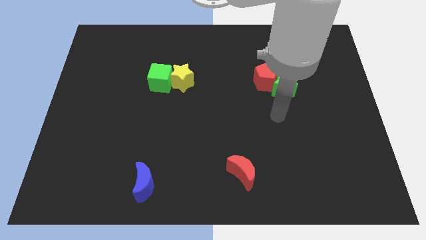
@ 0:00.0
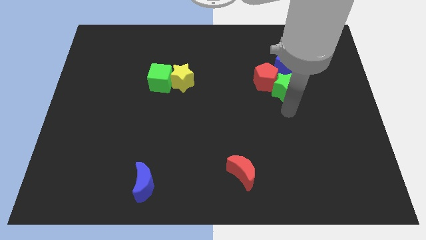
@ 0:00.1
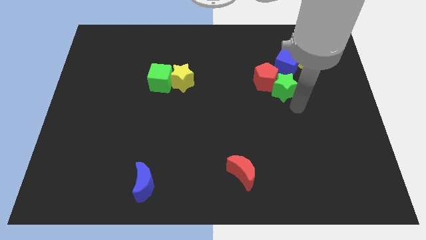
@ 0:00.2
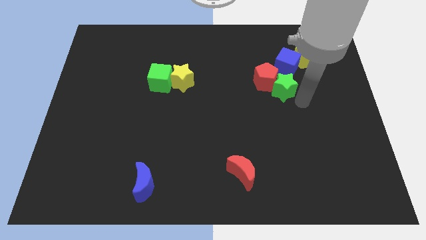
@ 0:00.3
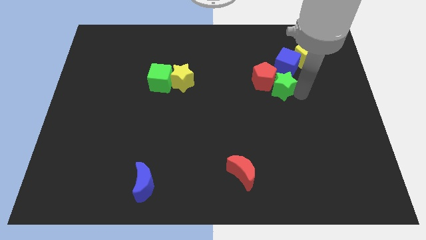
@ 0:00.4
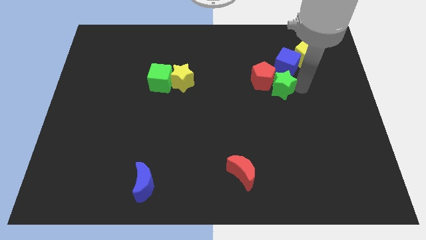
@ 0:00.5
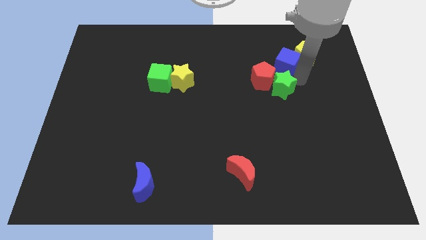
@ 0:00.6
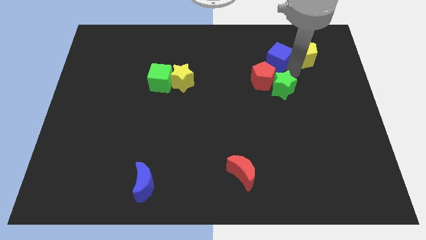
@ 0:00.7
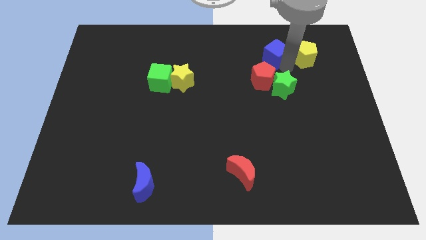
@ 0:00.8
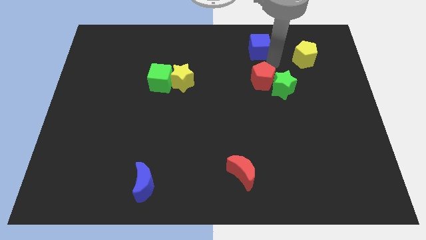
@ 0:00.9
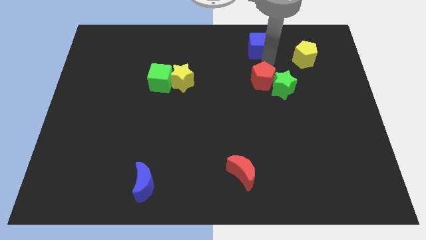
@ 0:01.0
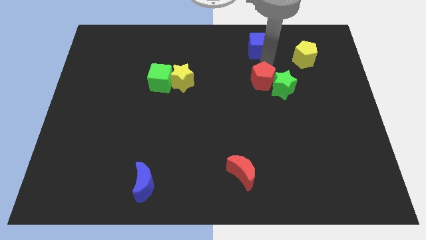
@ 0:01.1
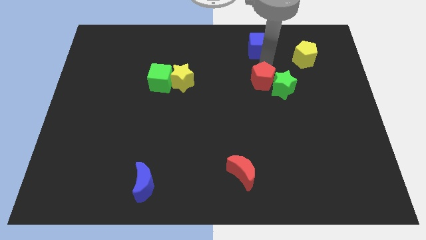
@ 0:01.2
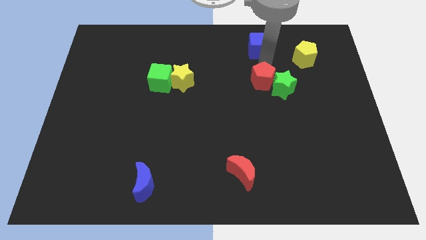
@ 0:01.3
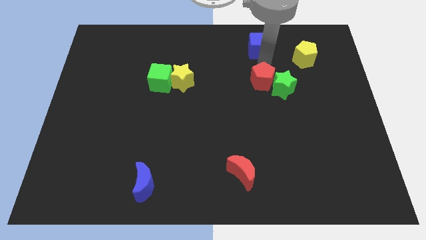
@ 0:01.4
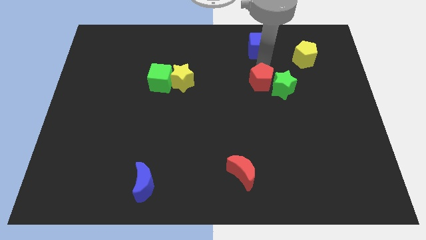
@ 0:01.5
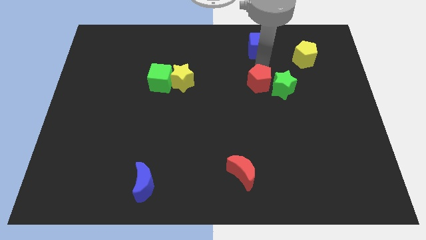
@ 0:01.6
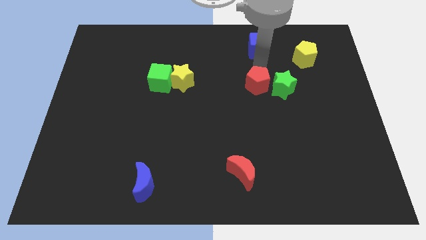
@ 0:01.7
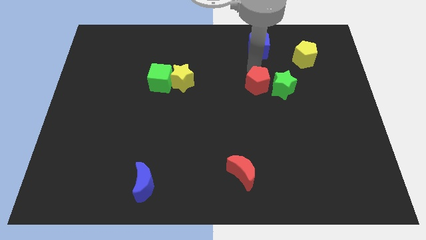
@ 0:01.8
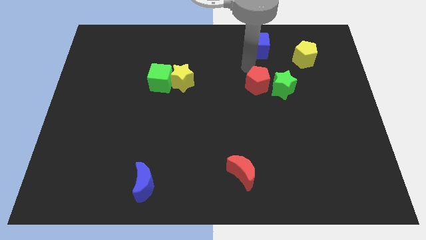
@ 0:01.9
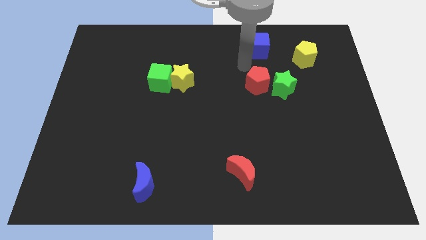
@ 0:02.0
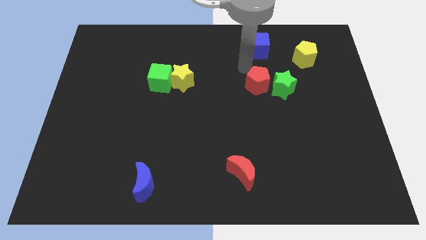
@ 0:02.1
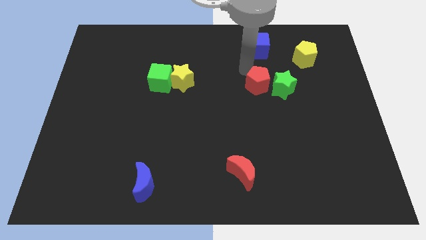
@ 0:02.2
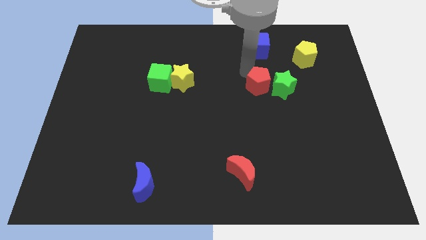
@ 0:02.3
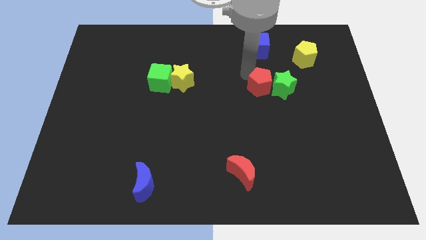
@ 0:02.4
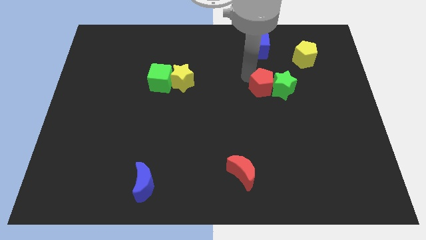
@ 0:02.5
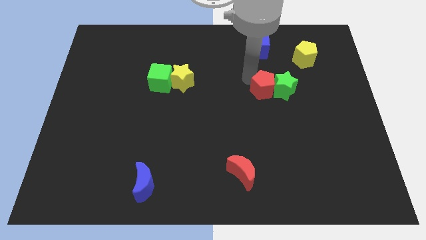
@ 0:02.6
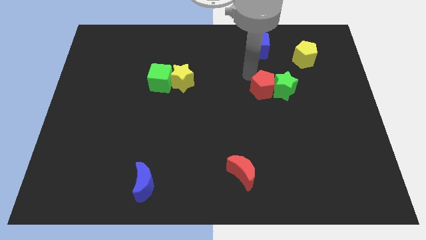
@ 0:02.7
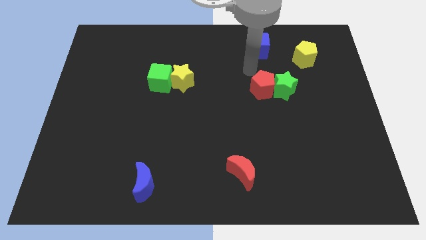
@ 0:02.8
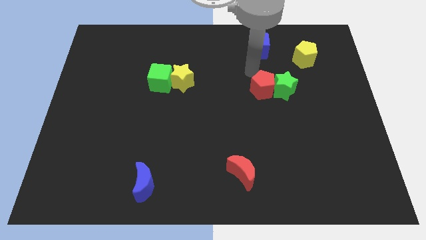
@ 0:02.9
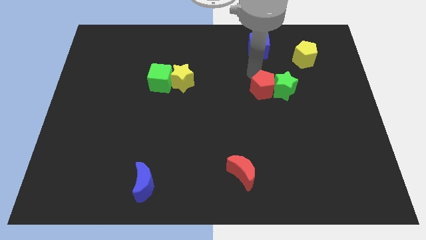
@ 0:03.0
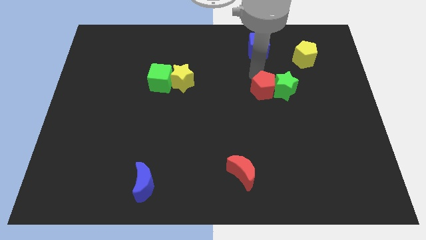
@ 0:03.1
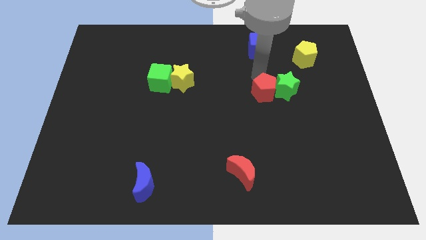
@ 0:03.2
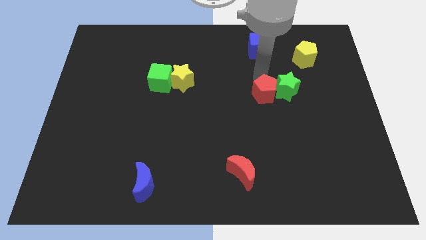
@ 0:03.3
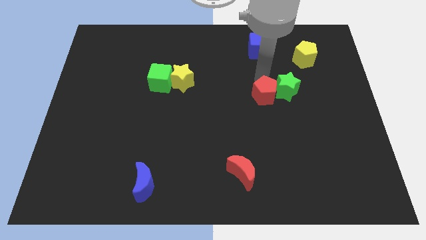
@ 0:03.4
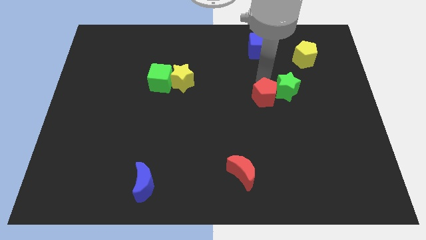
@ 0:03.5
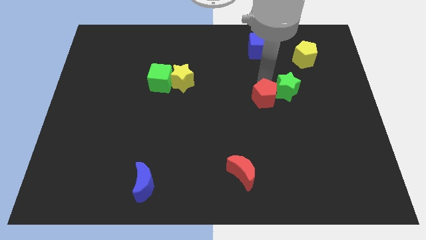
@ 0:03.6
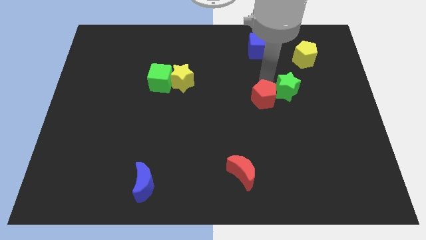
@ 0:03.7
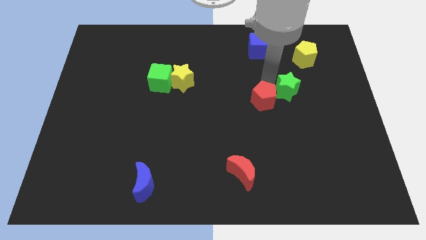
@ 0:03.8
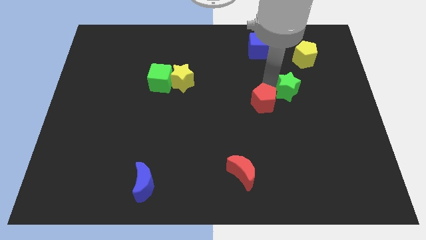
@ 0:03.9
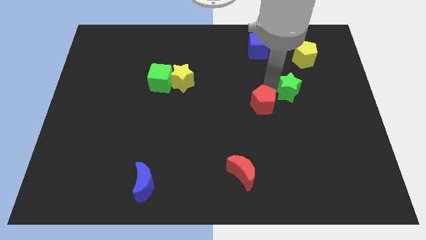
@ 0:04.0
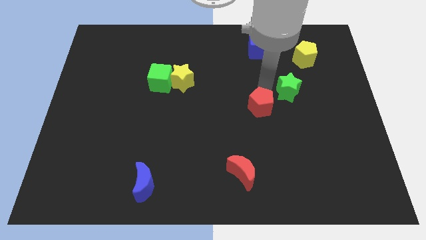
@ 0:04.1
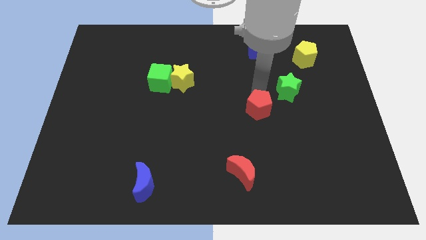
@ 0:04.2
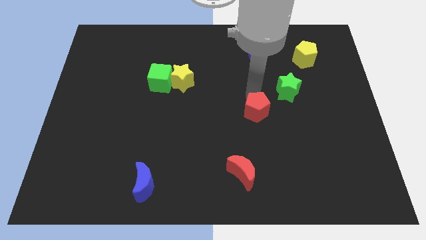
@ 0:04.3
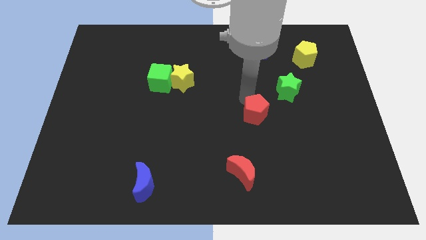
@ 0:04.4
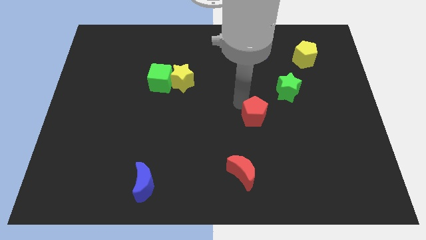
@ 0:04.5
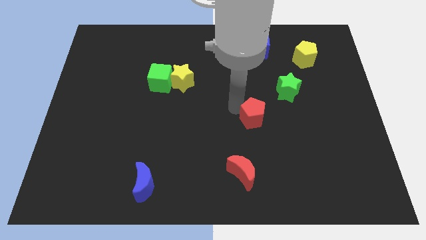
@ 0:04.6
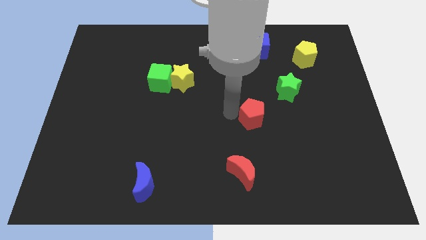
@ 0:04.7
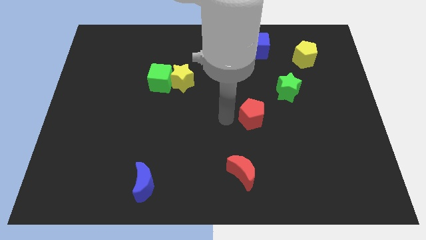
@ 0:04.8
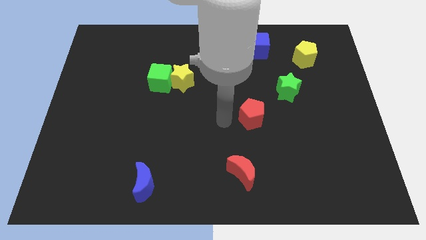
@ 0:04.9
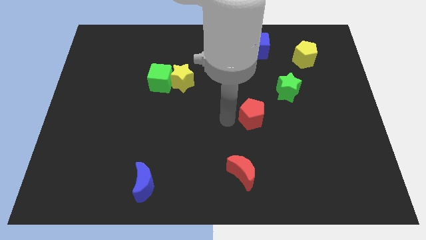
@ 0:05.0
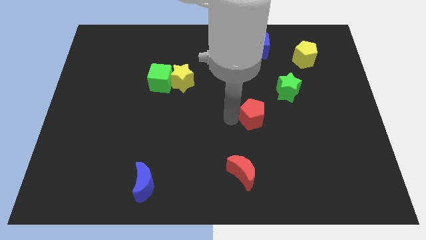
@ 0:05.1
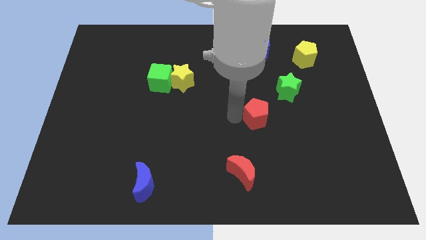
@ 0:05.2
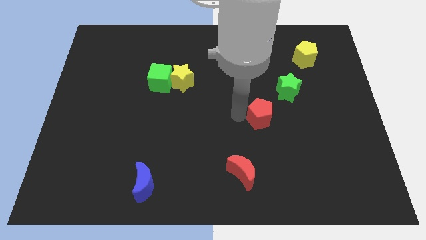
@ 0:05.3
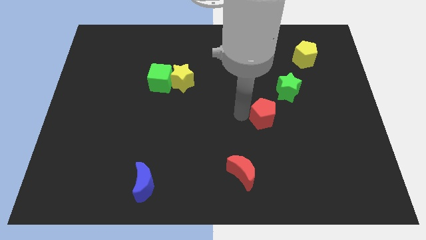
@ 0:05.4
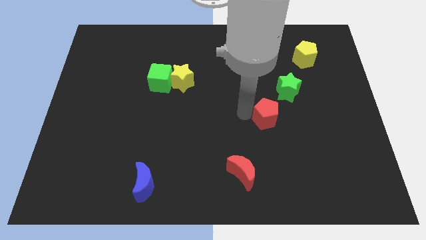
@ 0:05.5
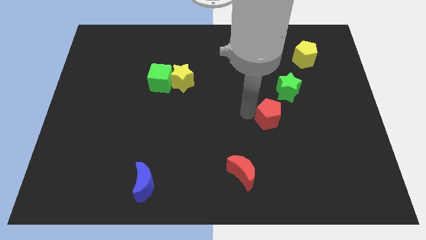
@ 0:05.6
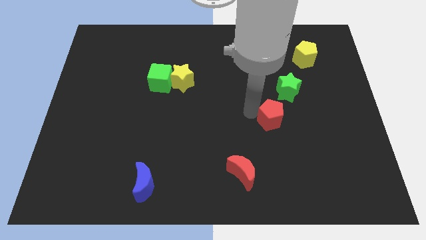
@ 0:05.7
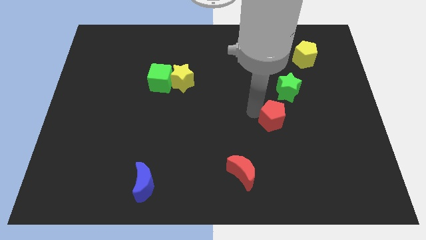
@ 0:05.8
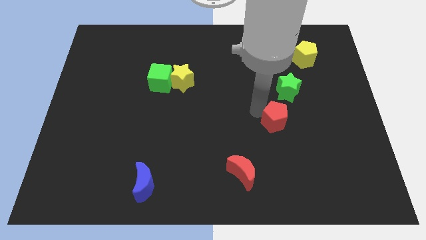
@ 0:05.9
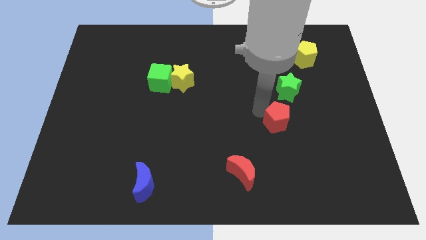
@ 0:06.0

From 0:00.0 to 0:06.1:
push the red pentagon downwards and to the right diagonally a bit

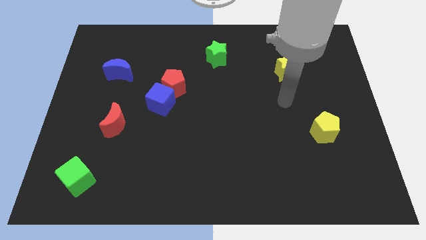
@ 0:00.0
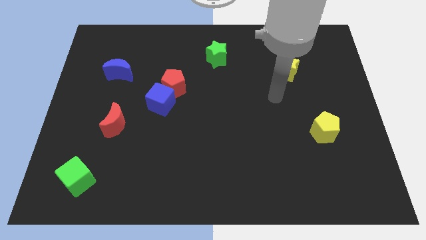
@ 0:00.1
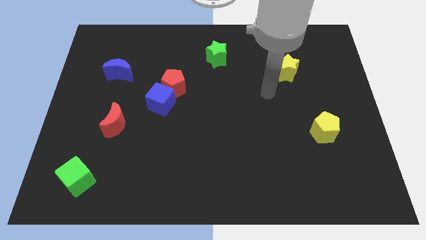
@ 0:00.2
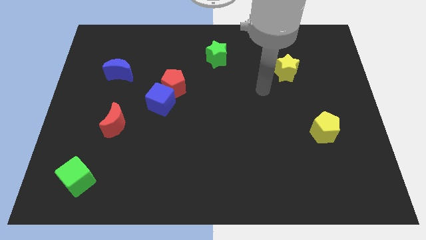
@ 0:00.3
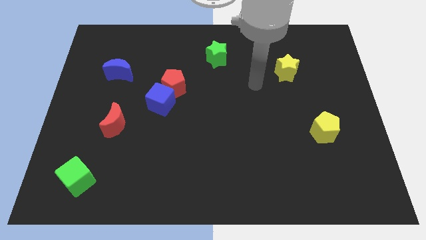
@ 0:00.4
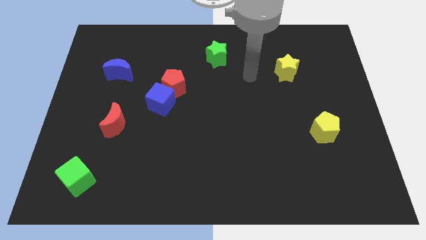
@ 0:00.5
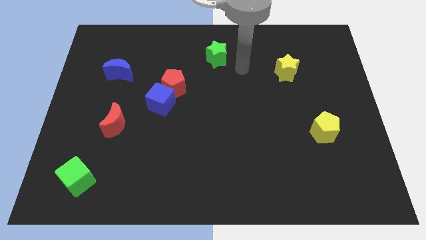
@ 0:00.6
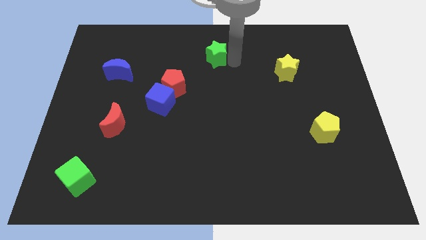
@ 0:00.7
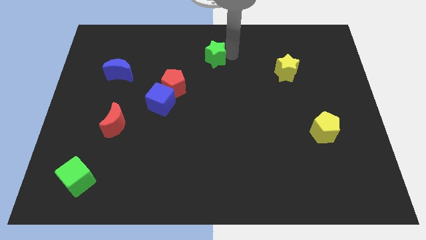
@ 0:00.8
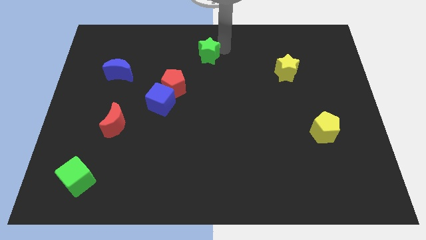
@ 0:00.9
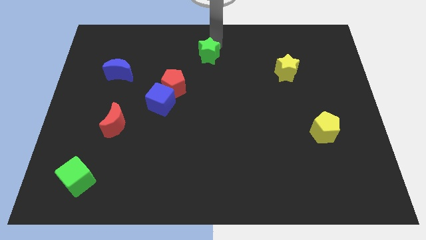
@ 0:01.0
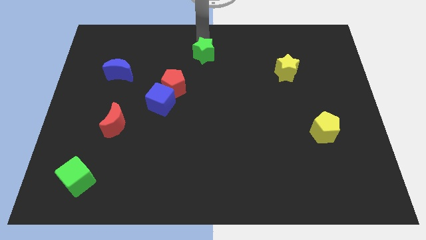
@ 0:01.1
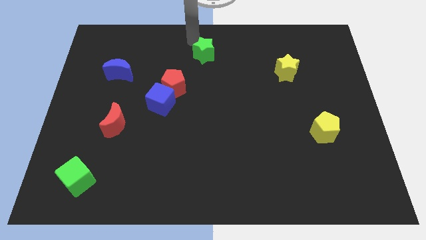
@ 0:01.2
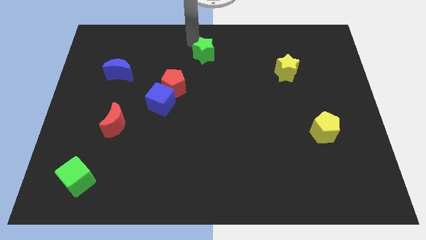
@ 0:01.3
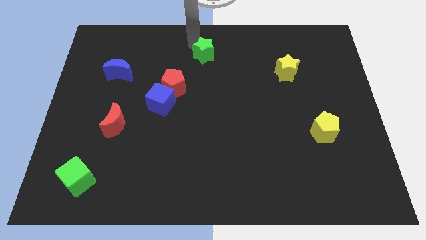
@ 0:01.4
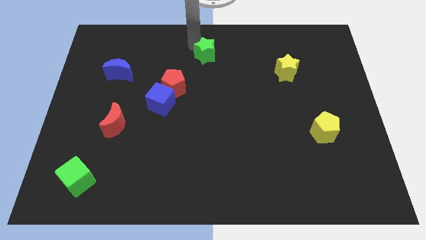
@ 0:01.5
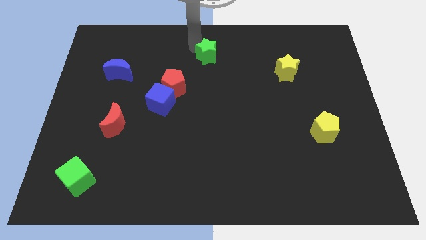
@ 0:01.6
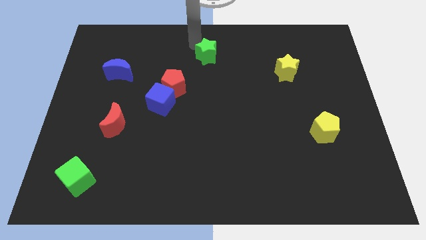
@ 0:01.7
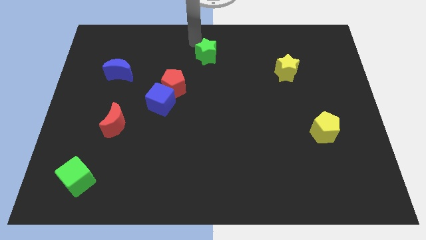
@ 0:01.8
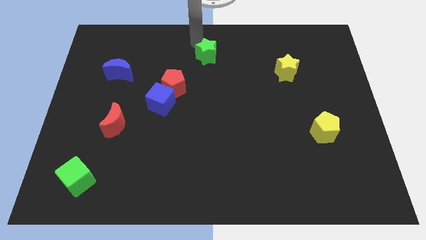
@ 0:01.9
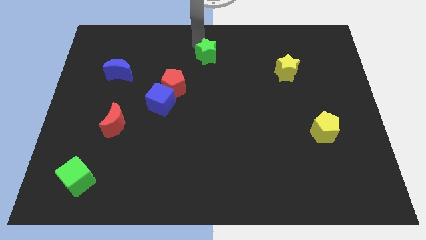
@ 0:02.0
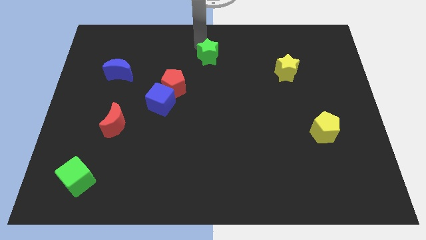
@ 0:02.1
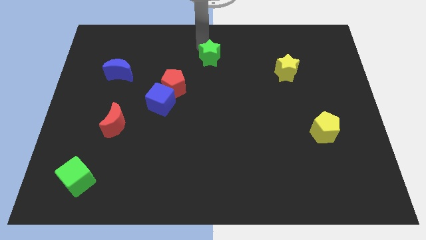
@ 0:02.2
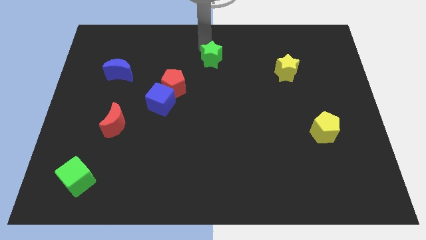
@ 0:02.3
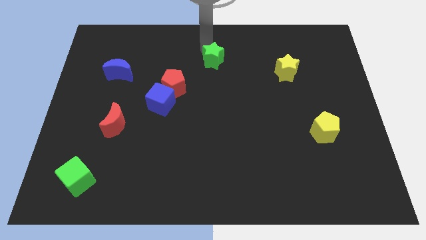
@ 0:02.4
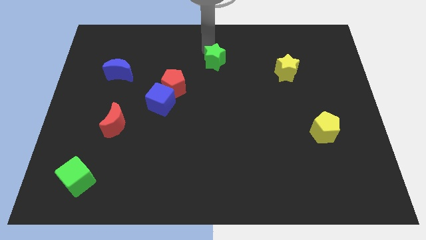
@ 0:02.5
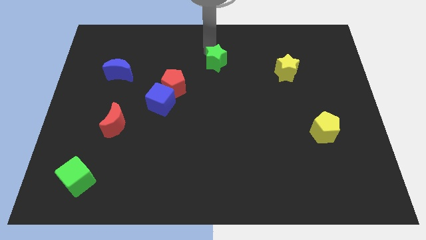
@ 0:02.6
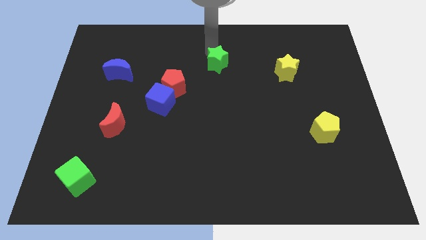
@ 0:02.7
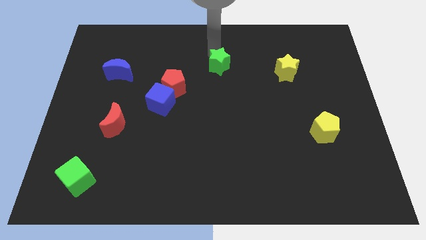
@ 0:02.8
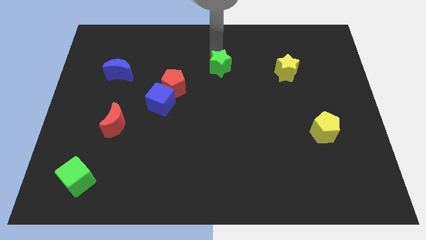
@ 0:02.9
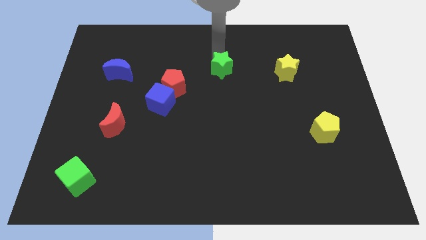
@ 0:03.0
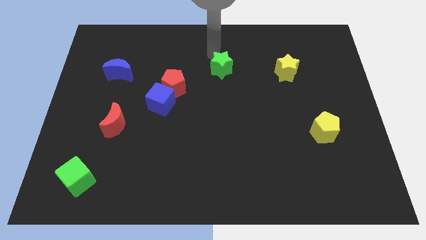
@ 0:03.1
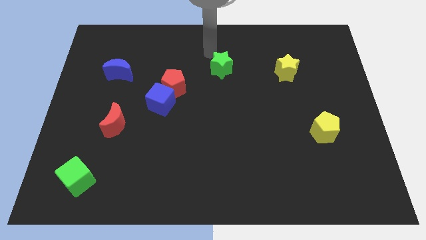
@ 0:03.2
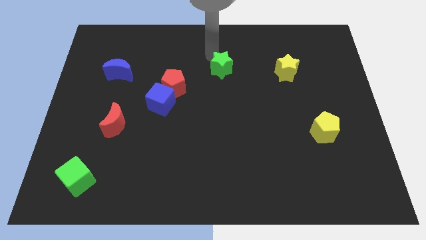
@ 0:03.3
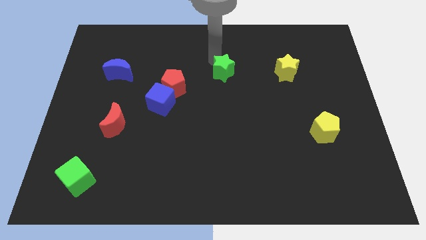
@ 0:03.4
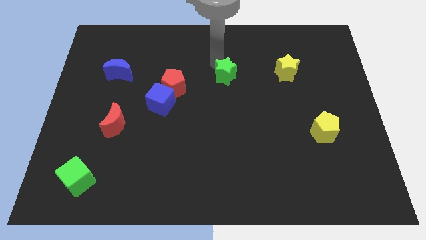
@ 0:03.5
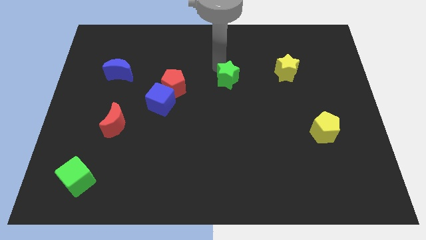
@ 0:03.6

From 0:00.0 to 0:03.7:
move the green star a bit downwards
